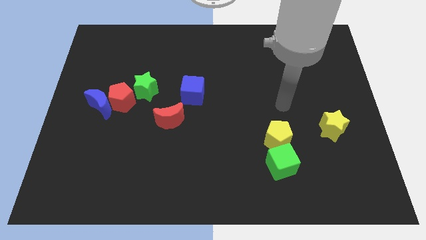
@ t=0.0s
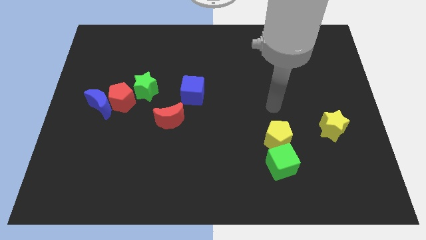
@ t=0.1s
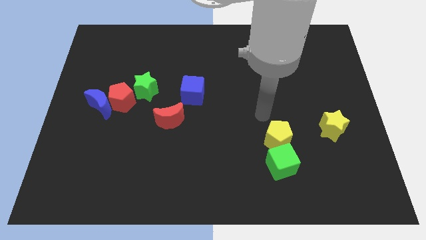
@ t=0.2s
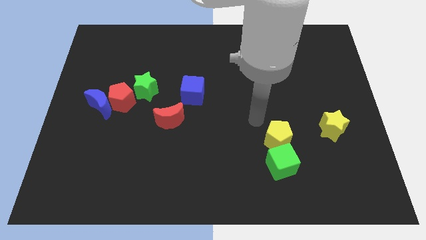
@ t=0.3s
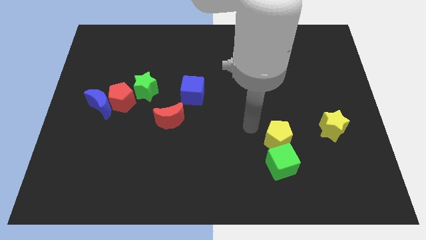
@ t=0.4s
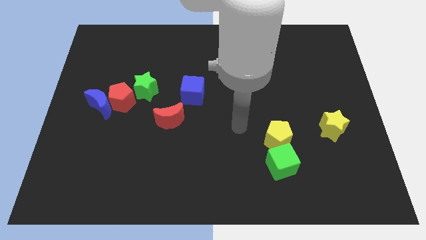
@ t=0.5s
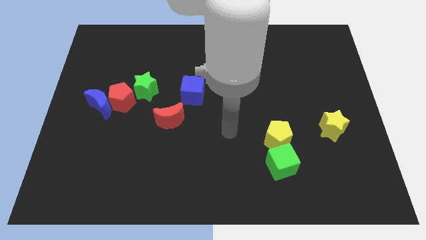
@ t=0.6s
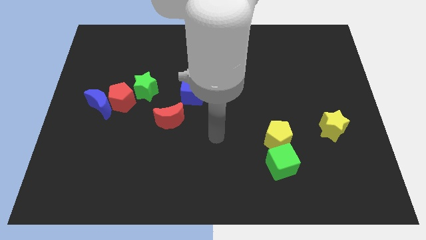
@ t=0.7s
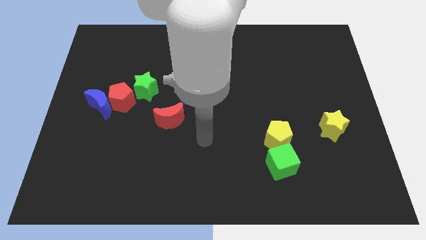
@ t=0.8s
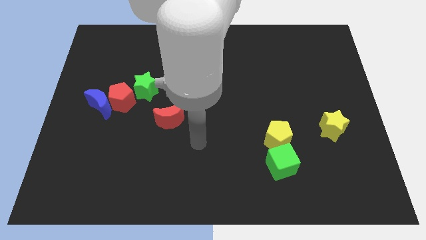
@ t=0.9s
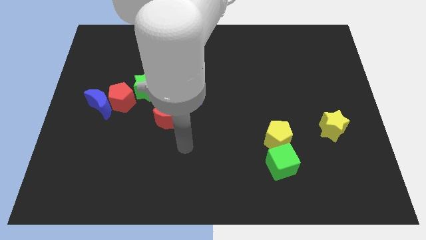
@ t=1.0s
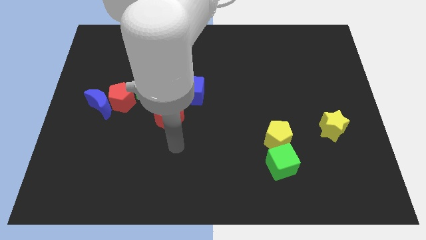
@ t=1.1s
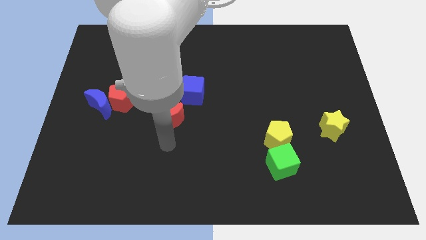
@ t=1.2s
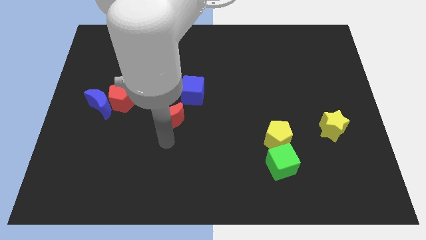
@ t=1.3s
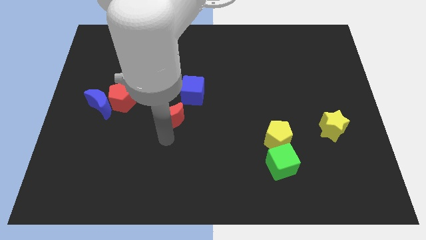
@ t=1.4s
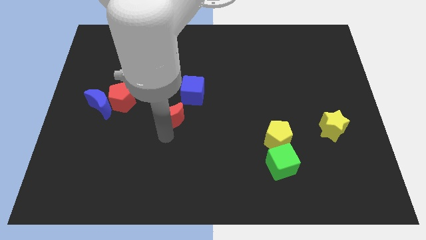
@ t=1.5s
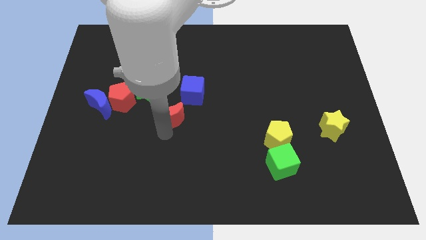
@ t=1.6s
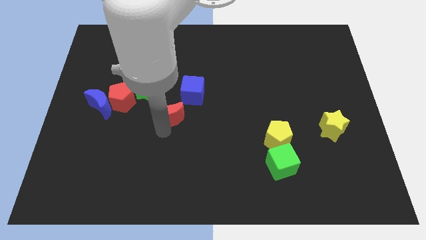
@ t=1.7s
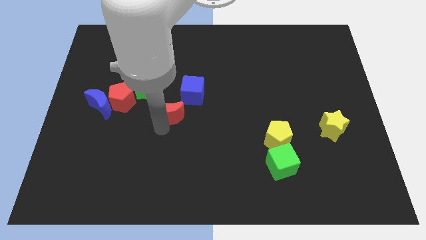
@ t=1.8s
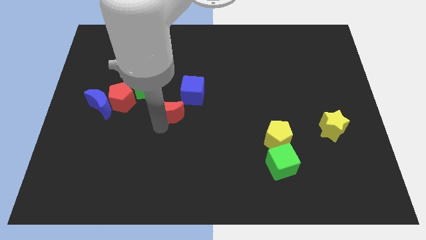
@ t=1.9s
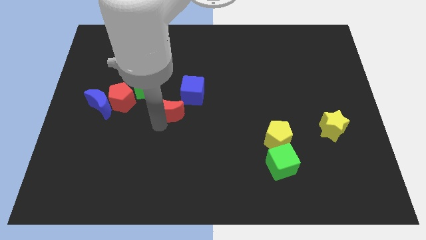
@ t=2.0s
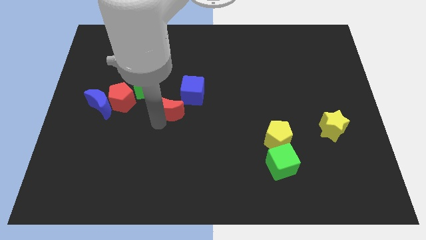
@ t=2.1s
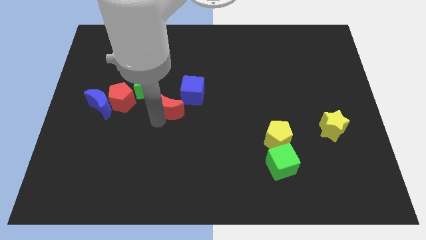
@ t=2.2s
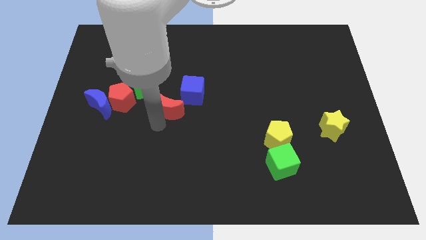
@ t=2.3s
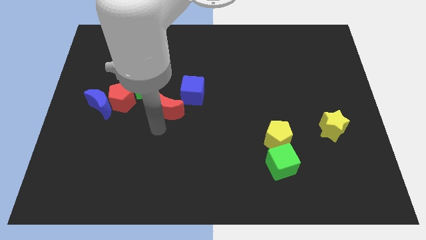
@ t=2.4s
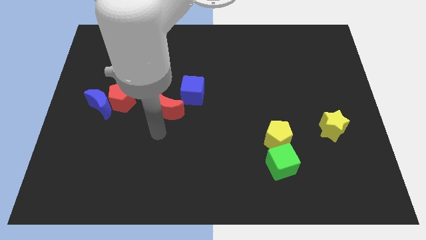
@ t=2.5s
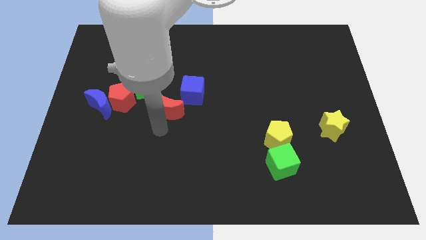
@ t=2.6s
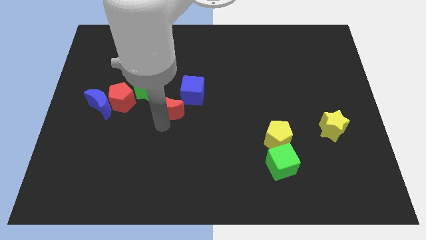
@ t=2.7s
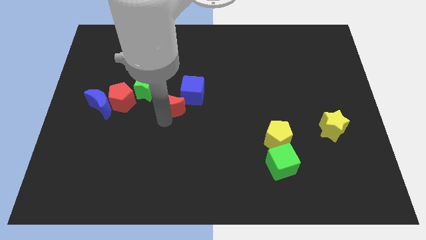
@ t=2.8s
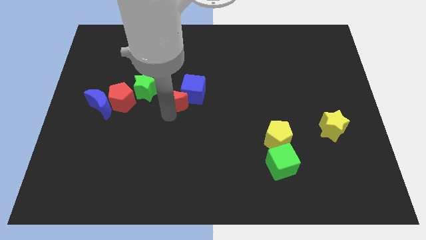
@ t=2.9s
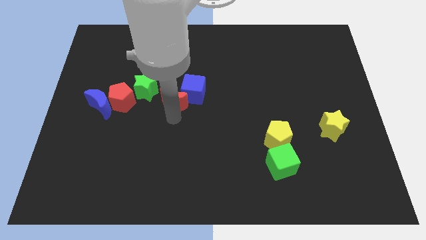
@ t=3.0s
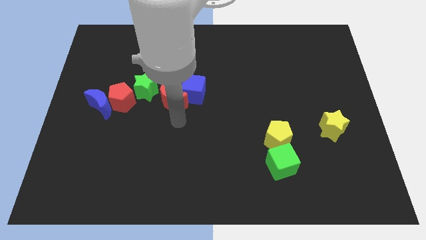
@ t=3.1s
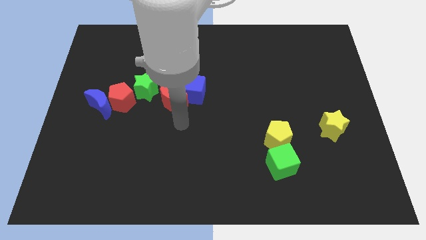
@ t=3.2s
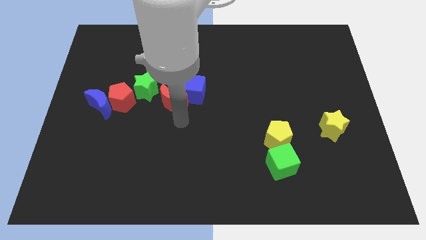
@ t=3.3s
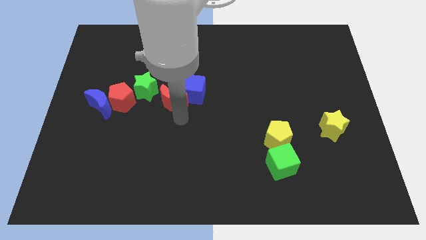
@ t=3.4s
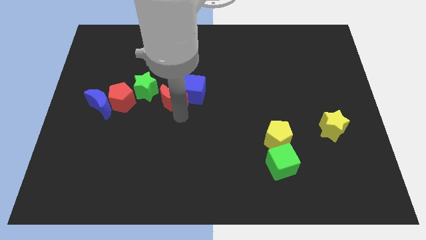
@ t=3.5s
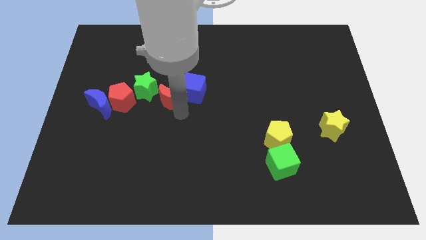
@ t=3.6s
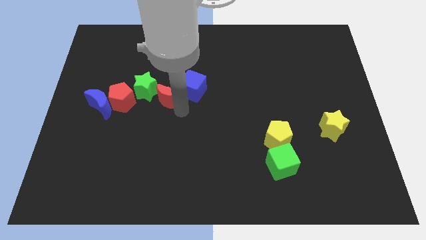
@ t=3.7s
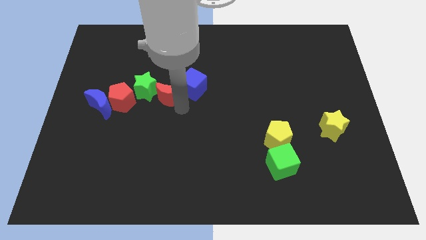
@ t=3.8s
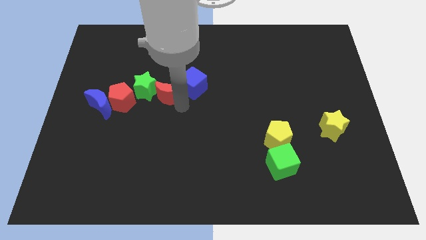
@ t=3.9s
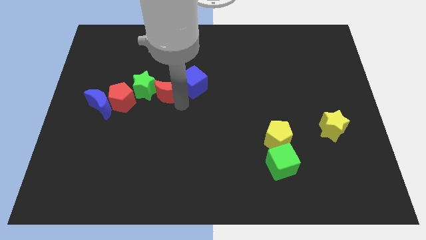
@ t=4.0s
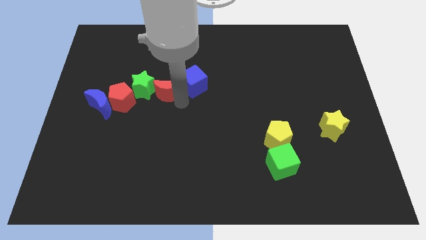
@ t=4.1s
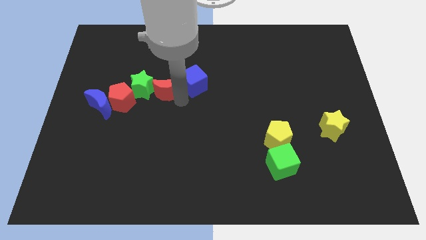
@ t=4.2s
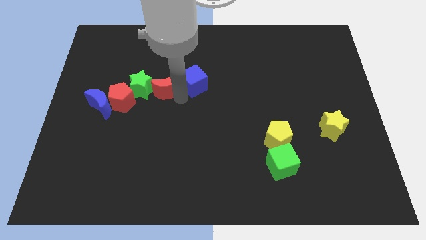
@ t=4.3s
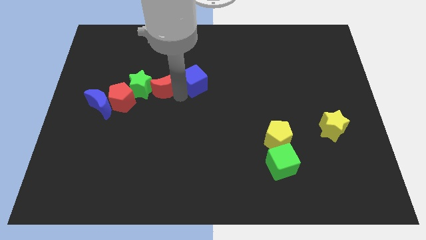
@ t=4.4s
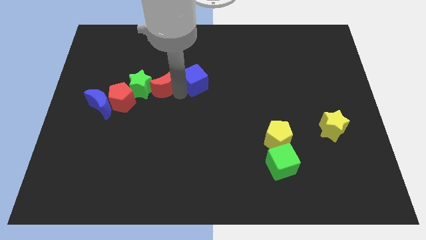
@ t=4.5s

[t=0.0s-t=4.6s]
move the red moon diagonally upwards and to the left a little

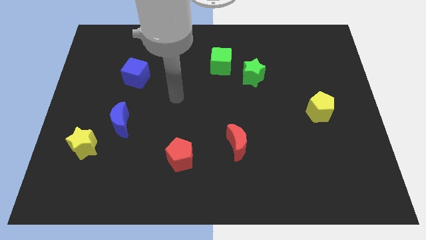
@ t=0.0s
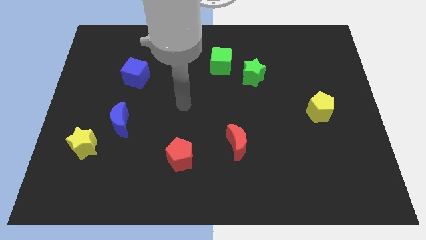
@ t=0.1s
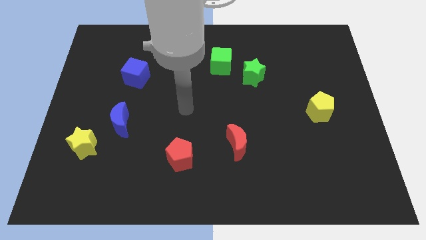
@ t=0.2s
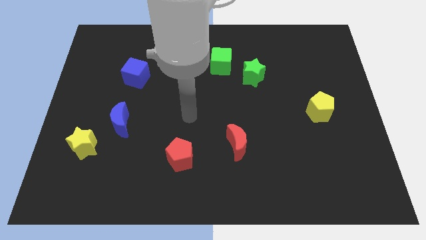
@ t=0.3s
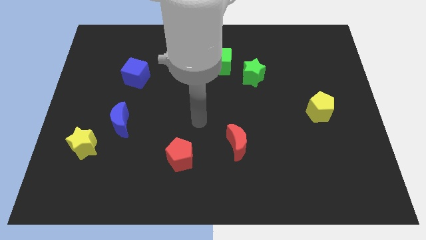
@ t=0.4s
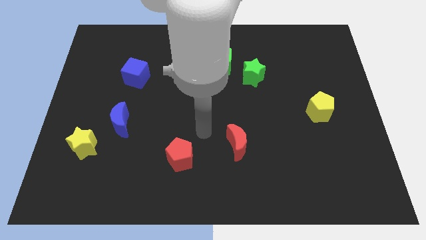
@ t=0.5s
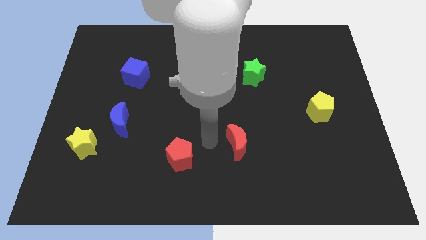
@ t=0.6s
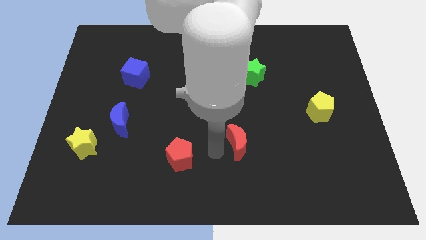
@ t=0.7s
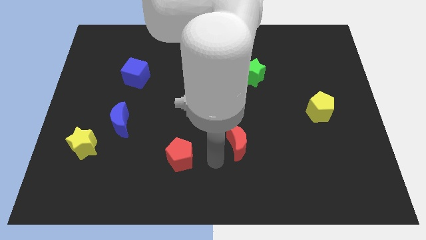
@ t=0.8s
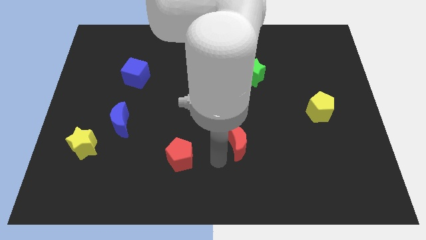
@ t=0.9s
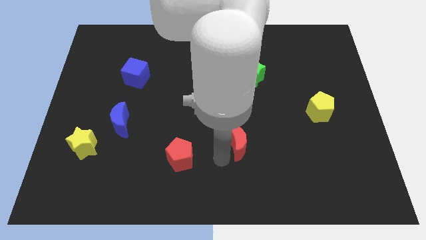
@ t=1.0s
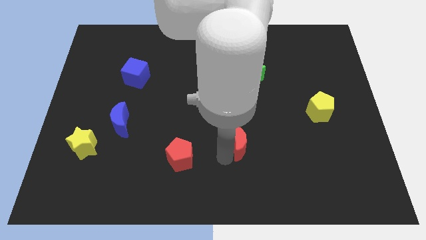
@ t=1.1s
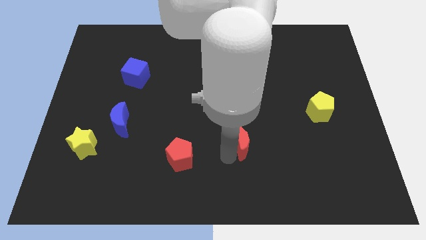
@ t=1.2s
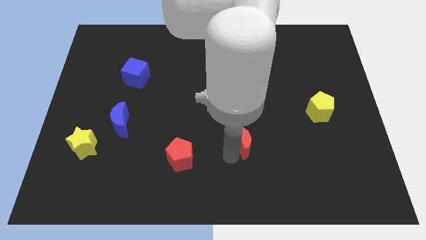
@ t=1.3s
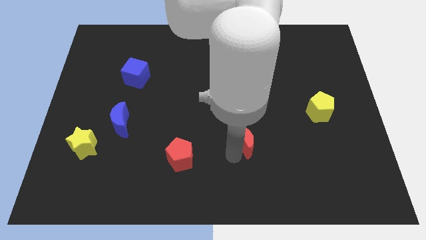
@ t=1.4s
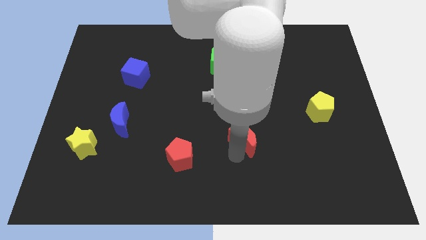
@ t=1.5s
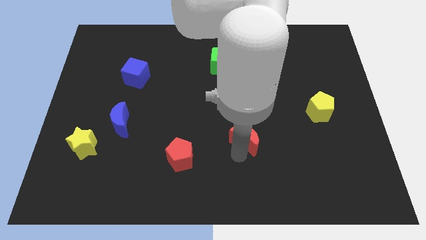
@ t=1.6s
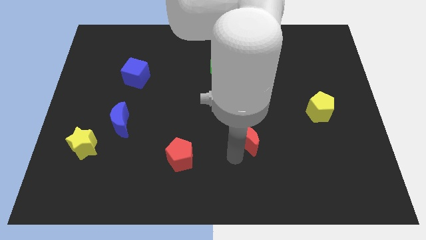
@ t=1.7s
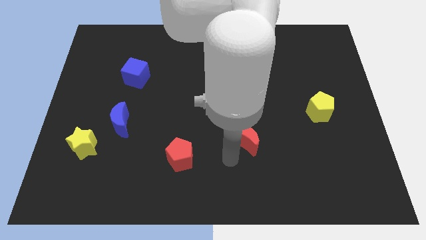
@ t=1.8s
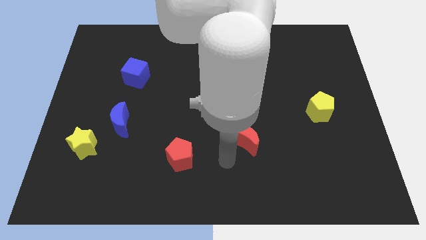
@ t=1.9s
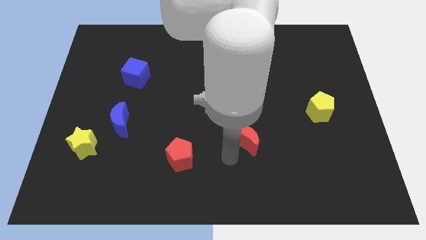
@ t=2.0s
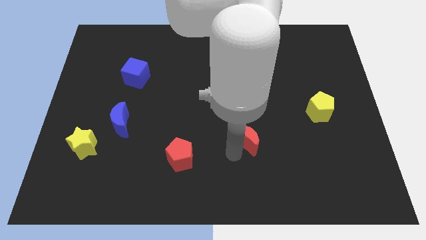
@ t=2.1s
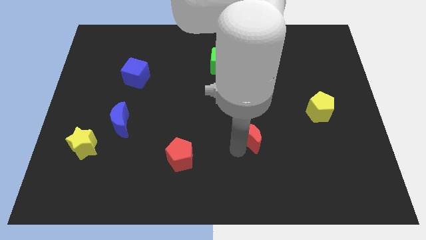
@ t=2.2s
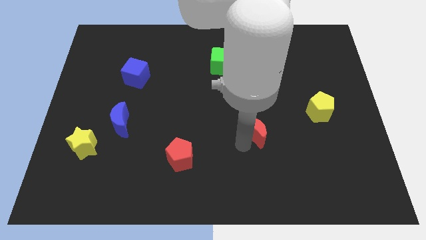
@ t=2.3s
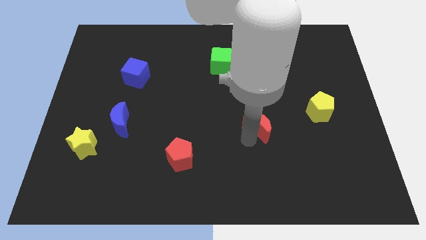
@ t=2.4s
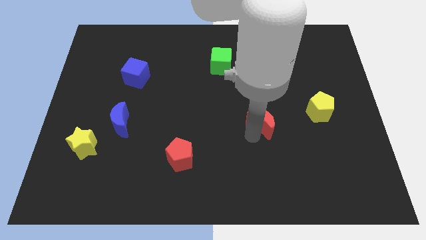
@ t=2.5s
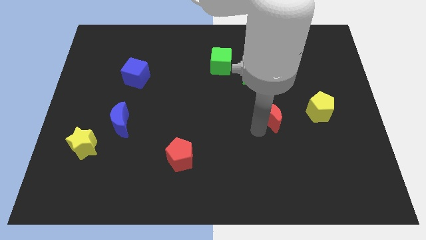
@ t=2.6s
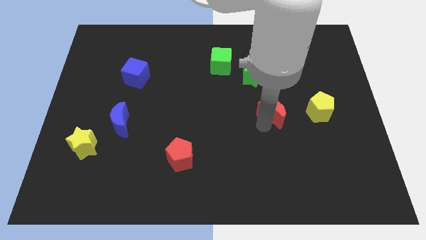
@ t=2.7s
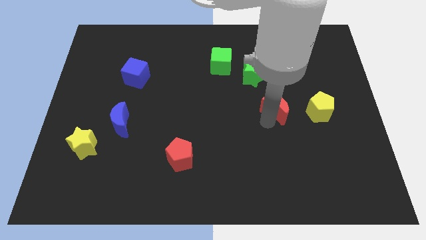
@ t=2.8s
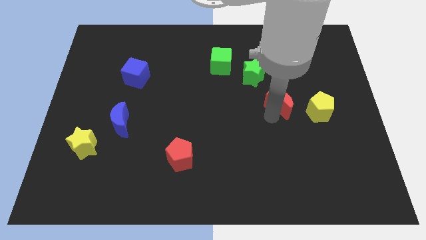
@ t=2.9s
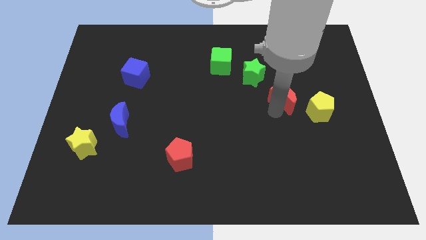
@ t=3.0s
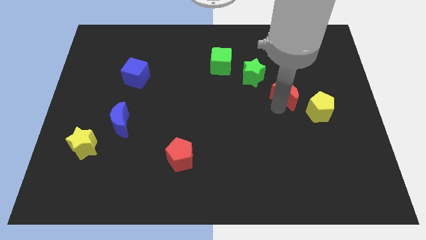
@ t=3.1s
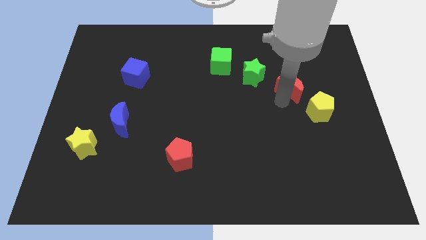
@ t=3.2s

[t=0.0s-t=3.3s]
move the red moon diagonally up and to the right

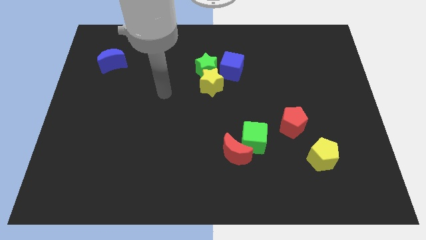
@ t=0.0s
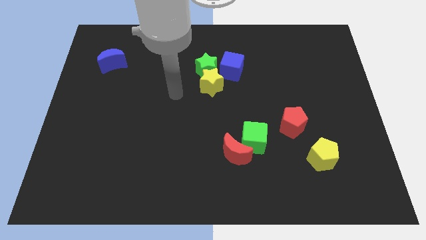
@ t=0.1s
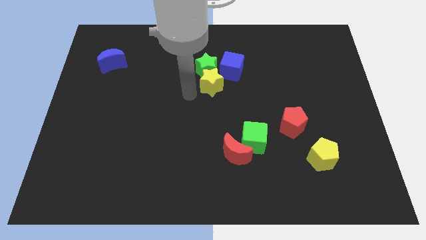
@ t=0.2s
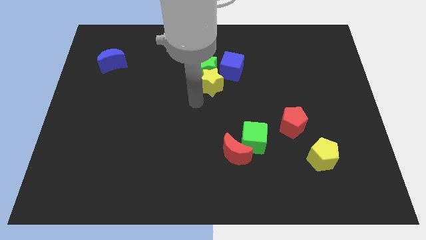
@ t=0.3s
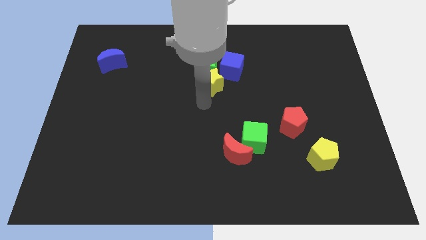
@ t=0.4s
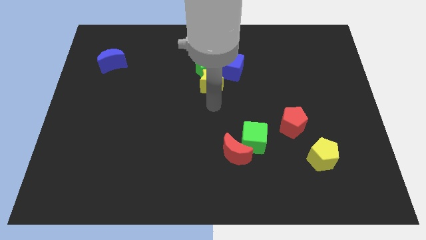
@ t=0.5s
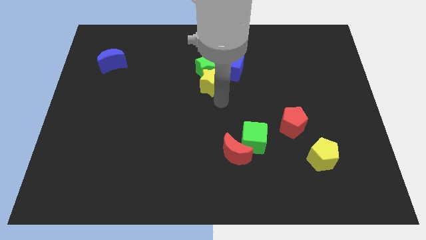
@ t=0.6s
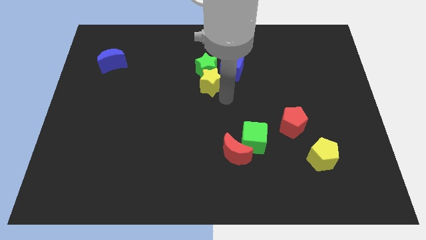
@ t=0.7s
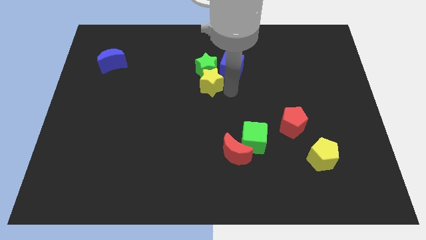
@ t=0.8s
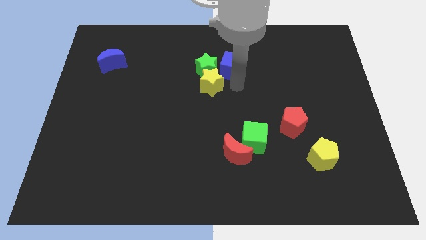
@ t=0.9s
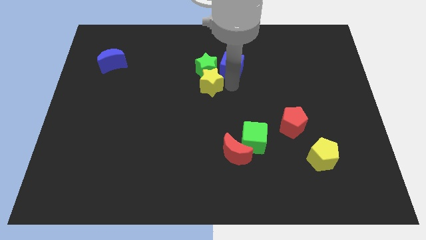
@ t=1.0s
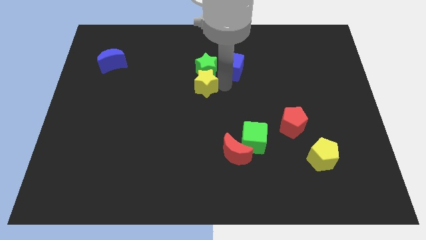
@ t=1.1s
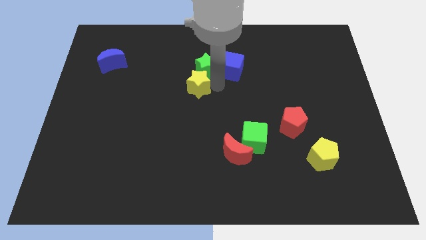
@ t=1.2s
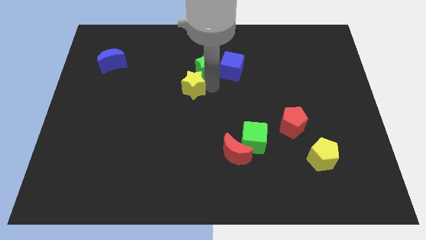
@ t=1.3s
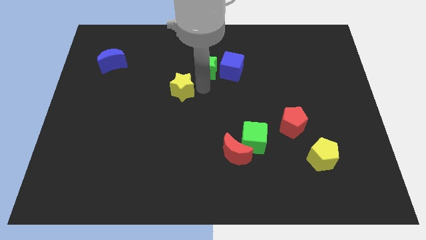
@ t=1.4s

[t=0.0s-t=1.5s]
move the yellow star a little left
